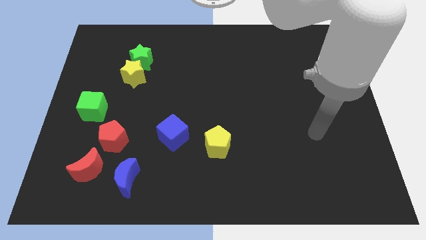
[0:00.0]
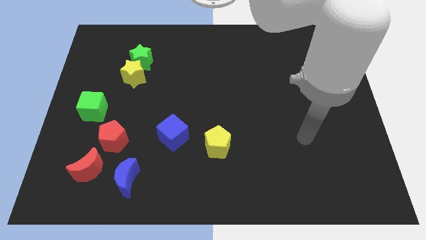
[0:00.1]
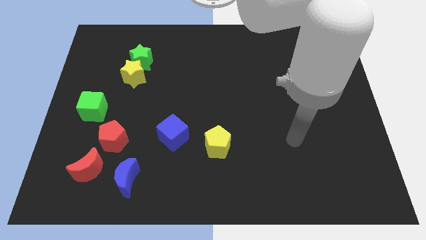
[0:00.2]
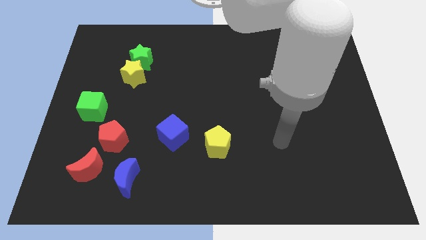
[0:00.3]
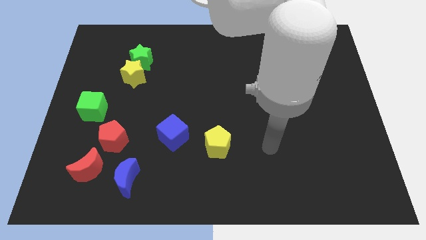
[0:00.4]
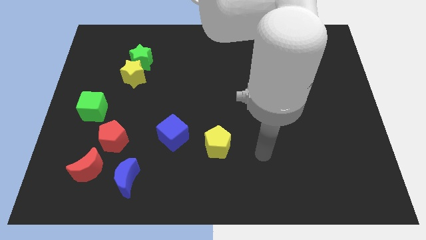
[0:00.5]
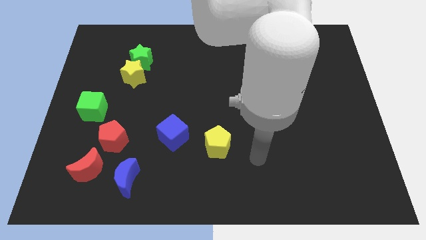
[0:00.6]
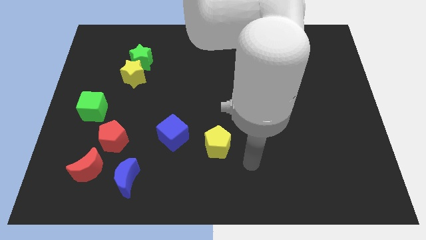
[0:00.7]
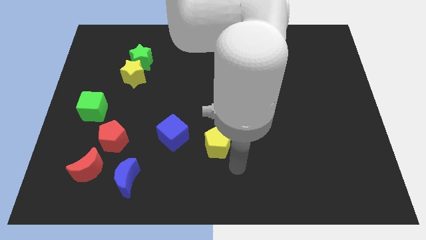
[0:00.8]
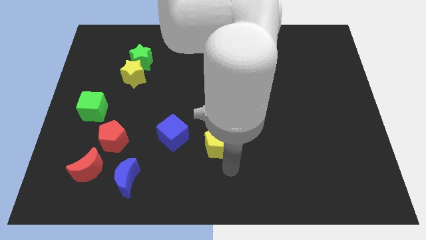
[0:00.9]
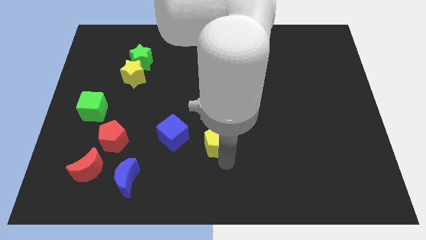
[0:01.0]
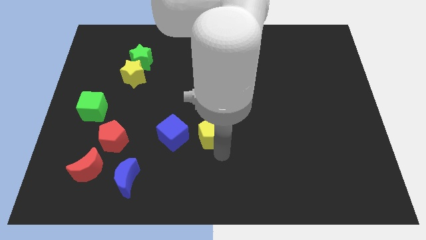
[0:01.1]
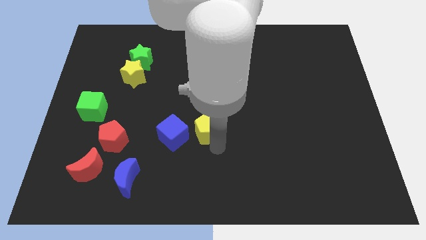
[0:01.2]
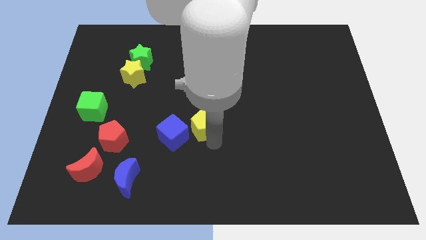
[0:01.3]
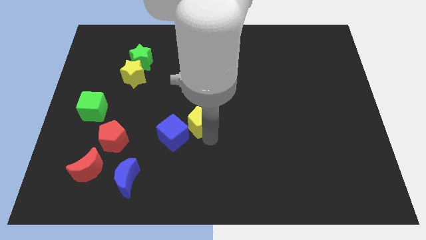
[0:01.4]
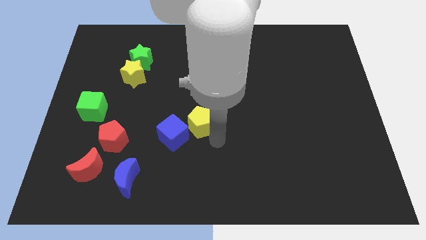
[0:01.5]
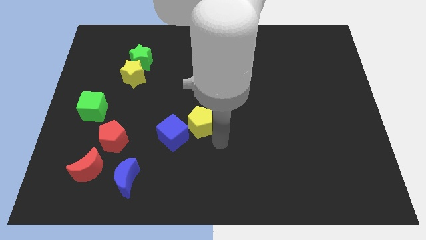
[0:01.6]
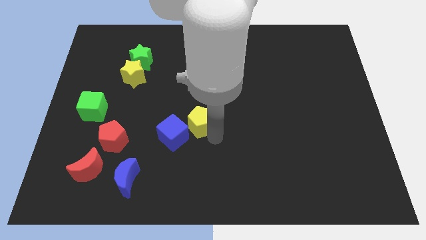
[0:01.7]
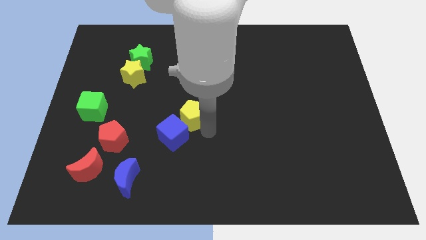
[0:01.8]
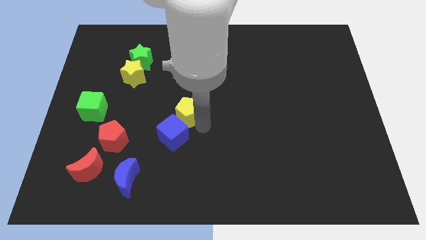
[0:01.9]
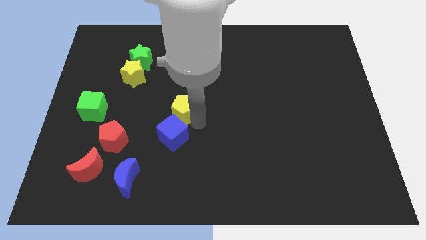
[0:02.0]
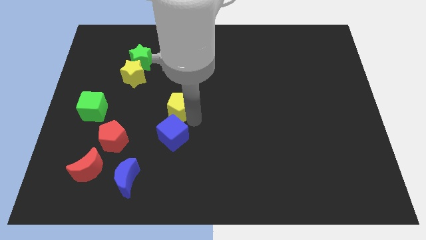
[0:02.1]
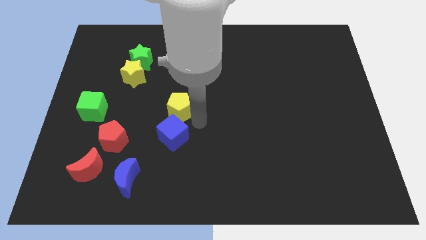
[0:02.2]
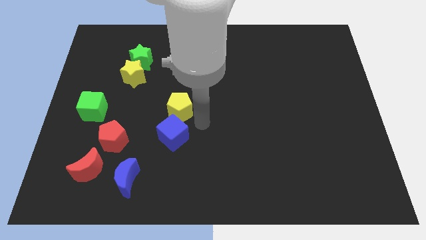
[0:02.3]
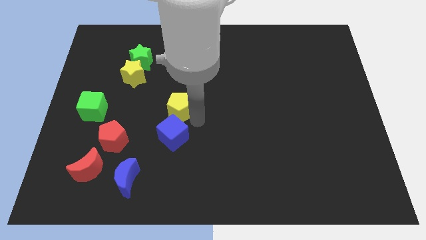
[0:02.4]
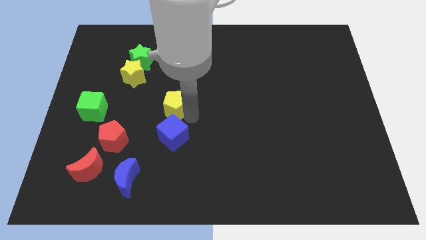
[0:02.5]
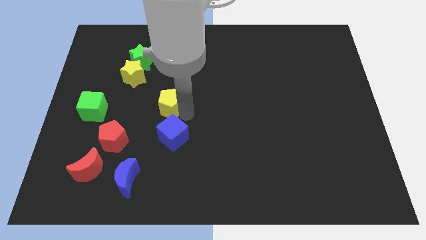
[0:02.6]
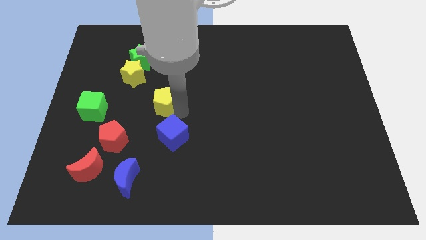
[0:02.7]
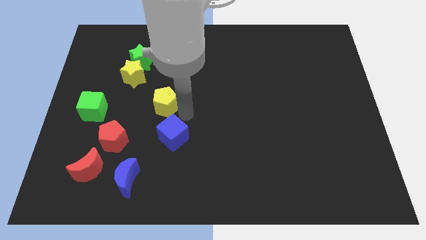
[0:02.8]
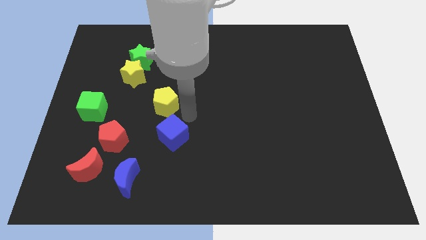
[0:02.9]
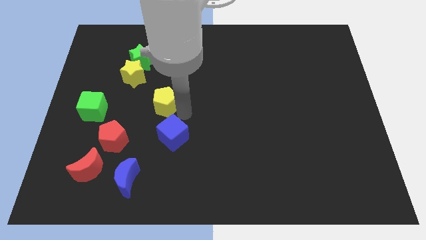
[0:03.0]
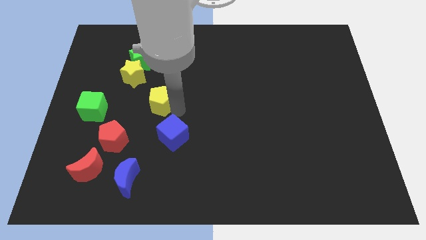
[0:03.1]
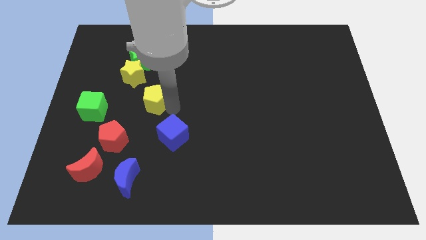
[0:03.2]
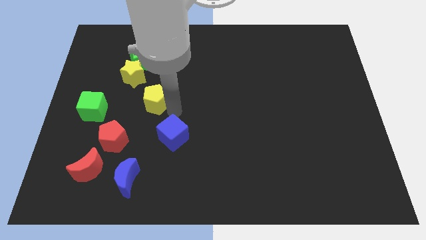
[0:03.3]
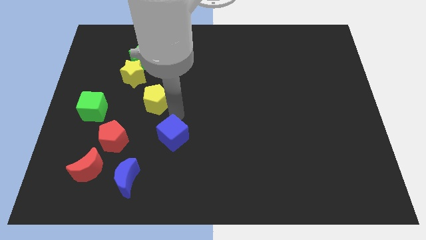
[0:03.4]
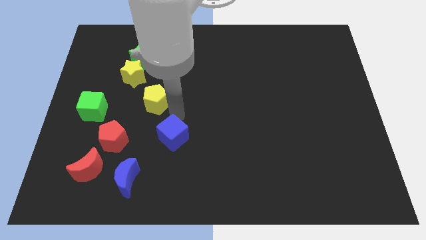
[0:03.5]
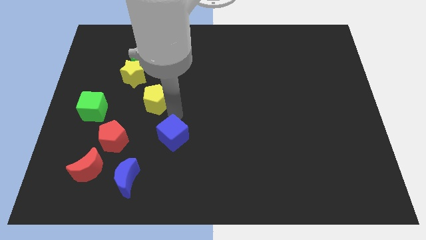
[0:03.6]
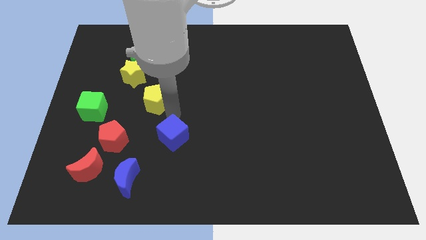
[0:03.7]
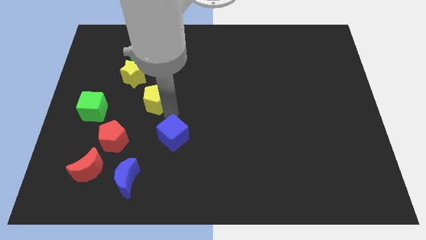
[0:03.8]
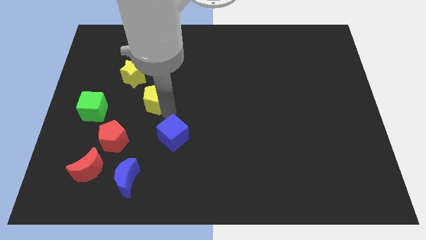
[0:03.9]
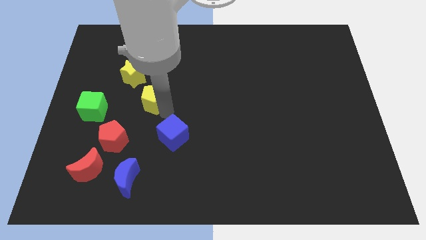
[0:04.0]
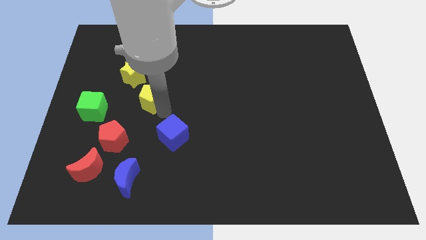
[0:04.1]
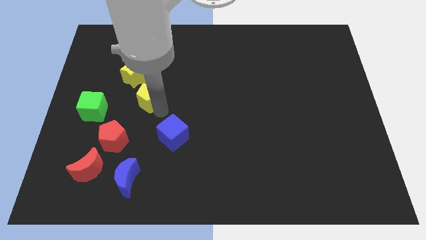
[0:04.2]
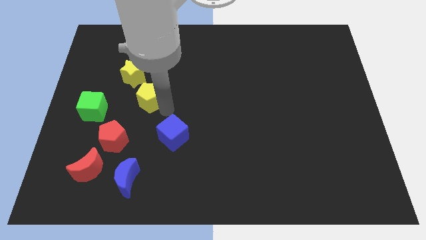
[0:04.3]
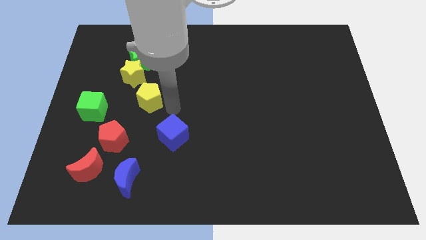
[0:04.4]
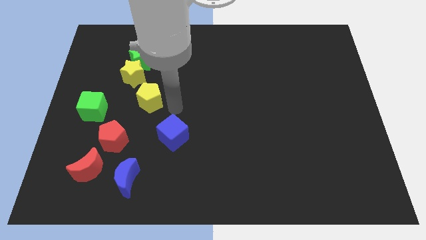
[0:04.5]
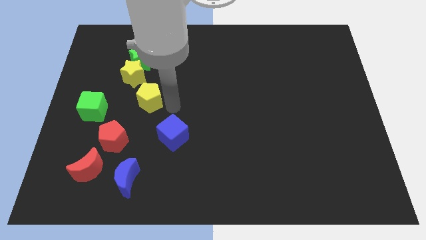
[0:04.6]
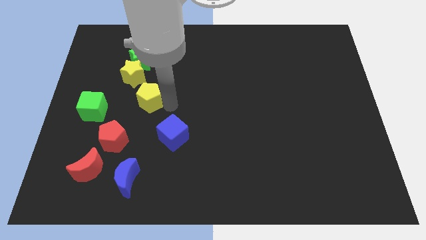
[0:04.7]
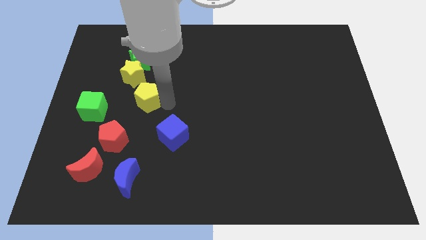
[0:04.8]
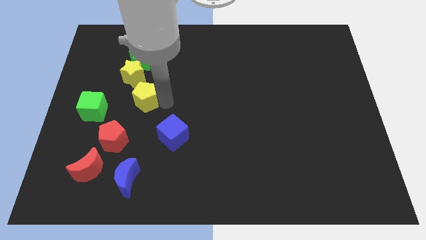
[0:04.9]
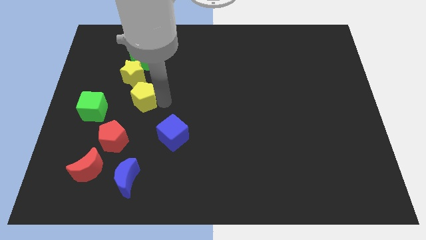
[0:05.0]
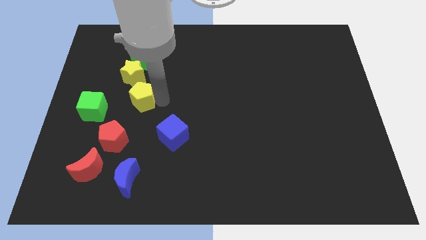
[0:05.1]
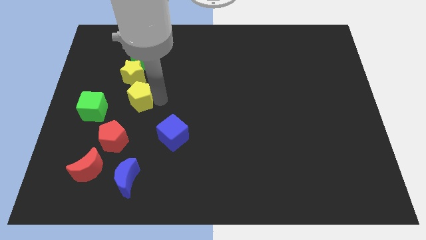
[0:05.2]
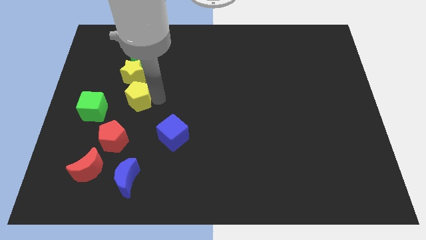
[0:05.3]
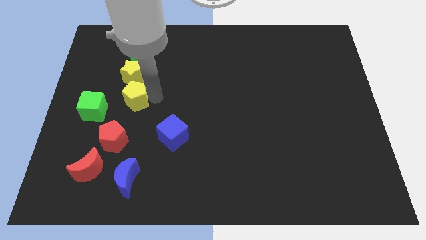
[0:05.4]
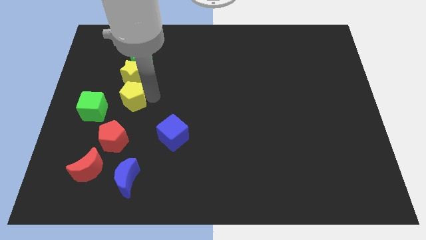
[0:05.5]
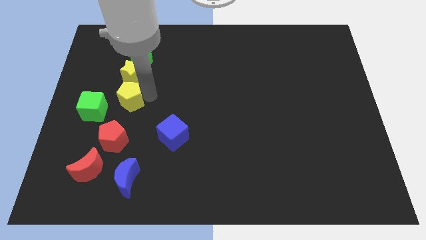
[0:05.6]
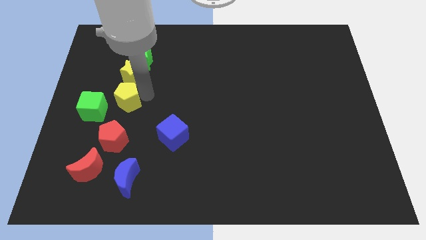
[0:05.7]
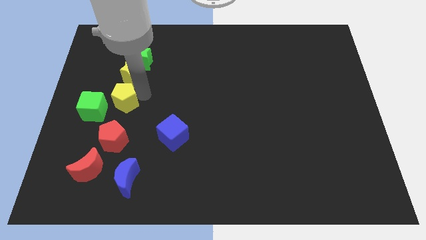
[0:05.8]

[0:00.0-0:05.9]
slide the yellow pentagon diagonally down and to the left of the yellow star

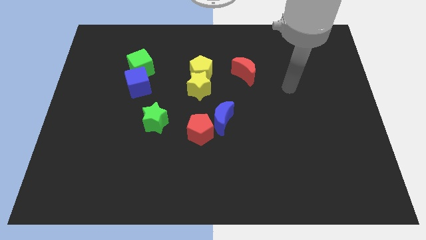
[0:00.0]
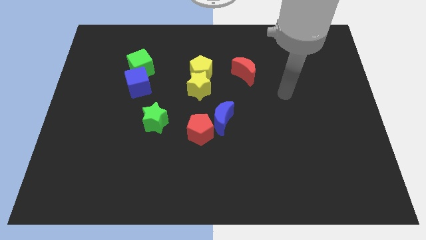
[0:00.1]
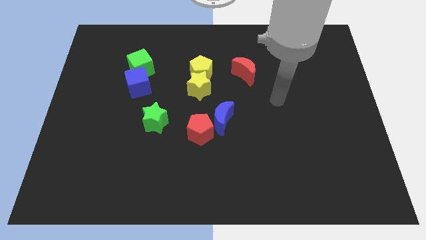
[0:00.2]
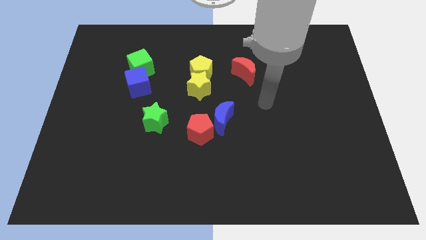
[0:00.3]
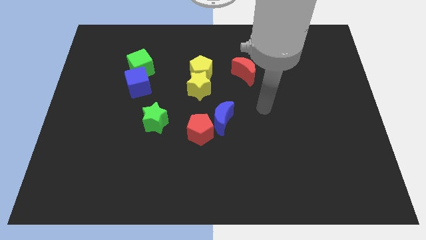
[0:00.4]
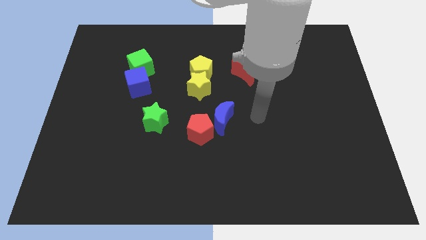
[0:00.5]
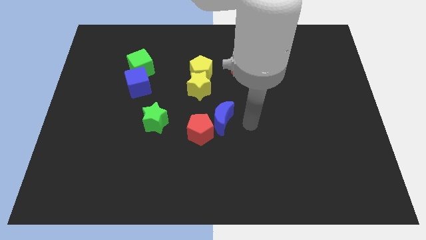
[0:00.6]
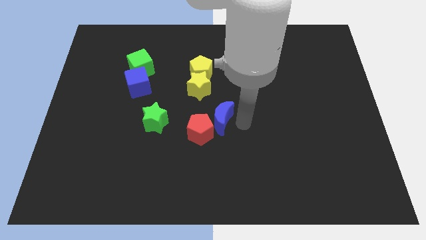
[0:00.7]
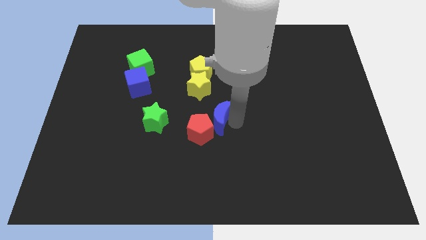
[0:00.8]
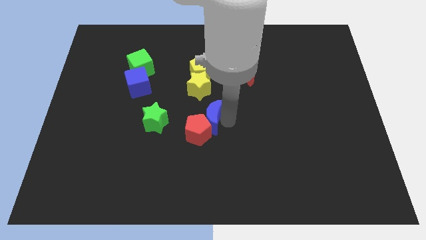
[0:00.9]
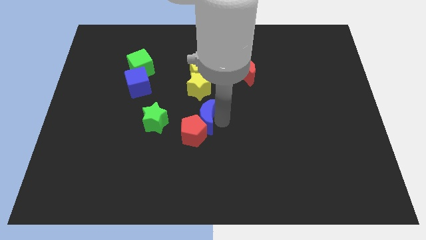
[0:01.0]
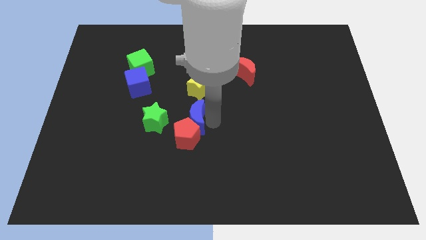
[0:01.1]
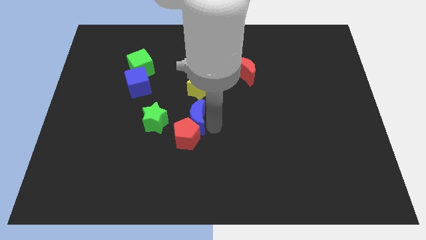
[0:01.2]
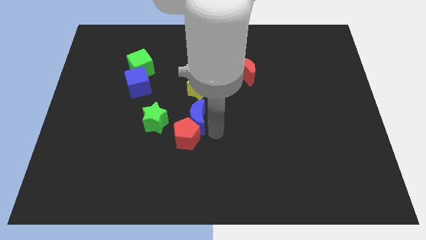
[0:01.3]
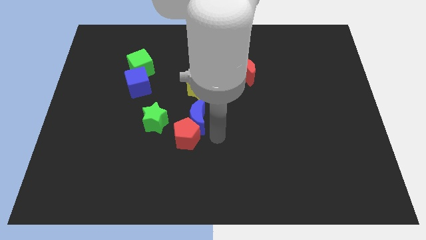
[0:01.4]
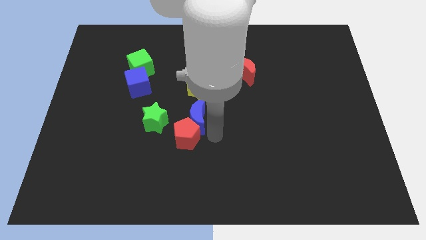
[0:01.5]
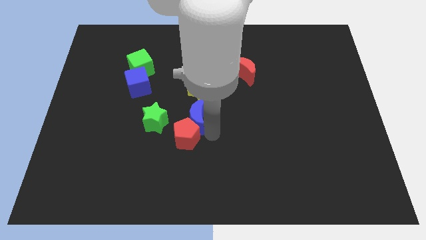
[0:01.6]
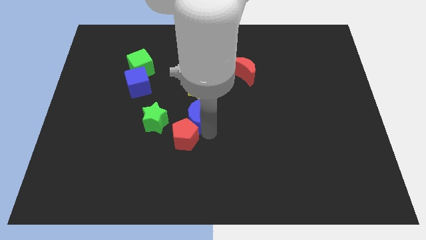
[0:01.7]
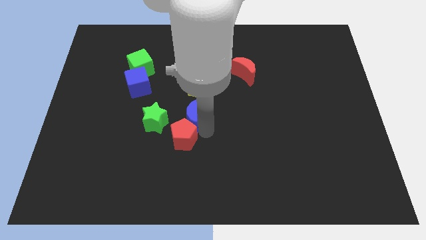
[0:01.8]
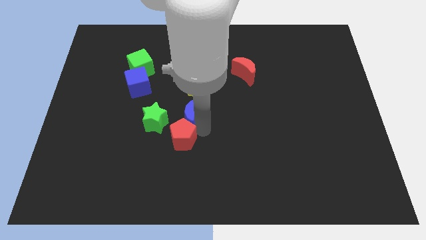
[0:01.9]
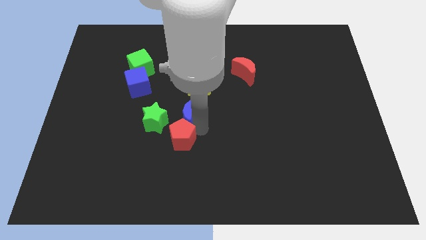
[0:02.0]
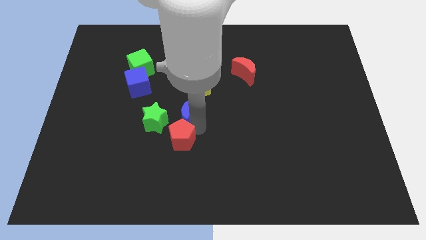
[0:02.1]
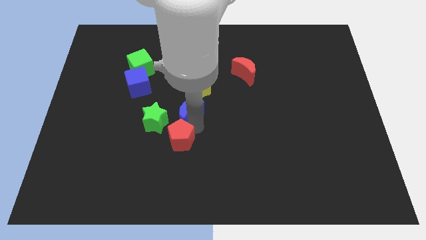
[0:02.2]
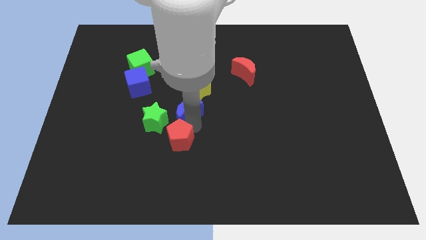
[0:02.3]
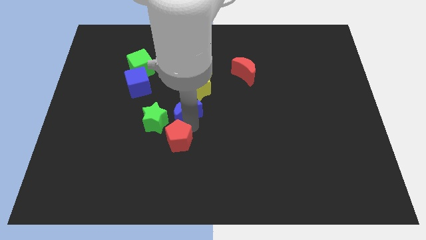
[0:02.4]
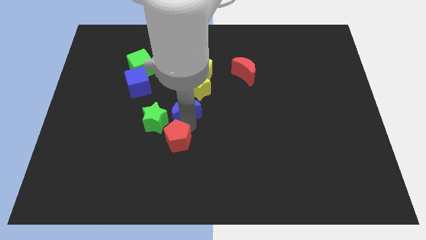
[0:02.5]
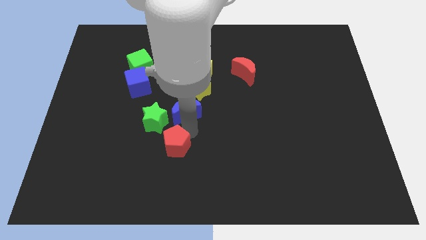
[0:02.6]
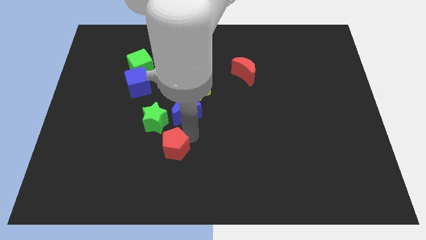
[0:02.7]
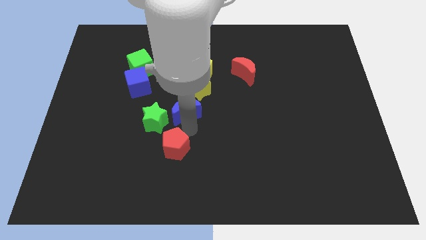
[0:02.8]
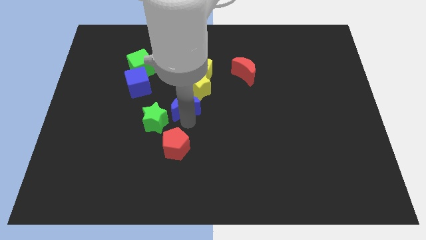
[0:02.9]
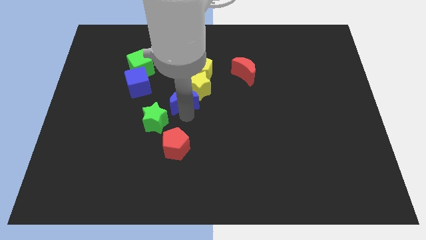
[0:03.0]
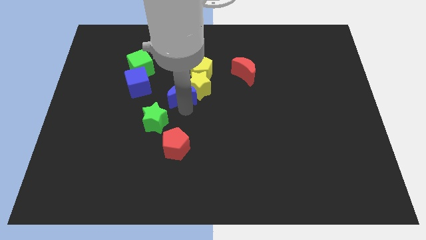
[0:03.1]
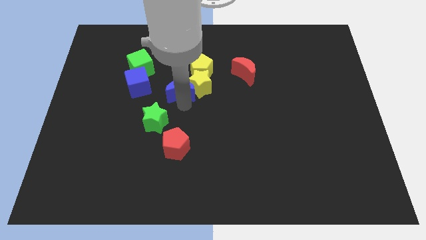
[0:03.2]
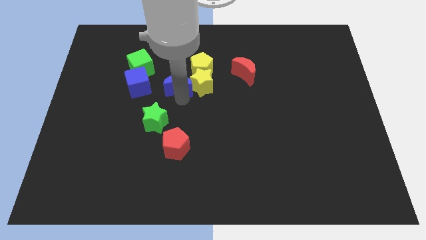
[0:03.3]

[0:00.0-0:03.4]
push the blue moon to the top left of the yellow star
